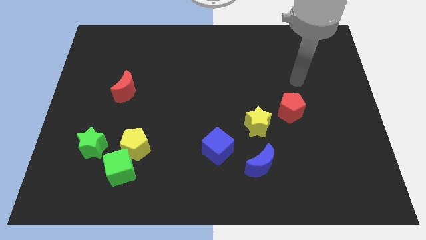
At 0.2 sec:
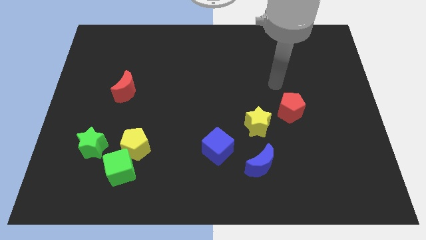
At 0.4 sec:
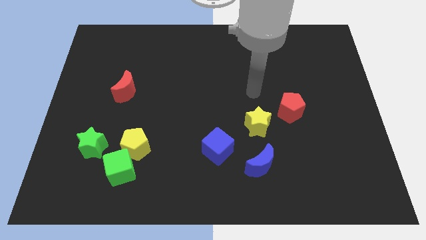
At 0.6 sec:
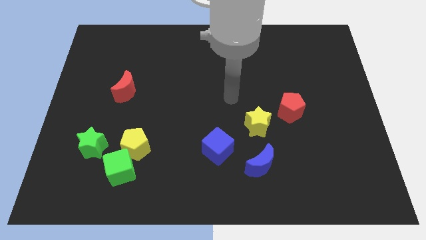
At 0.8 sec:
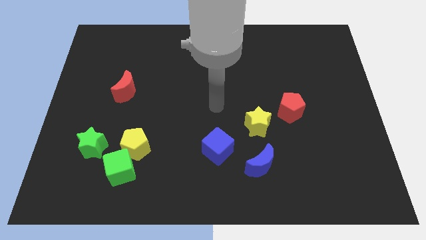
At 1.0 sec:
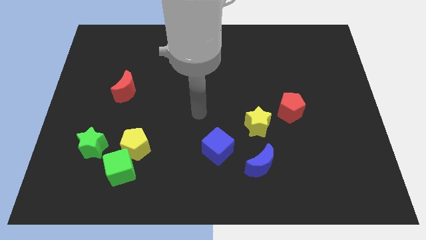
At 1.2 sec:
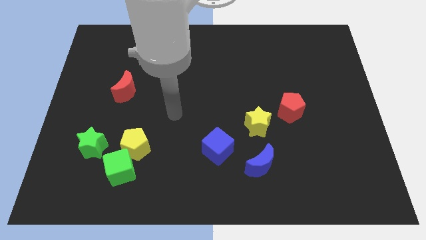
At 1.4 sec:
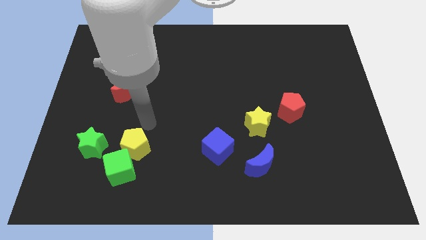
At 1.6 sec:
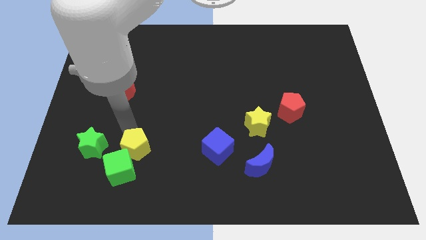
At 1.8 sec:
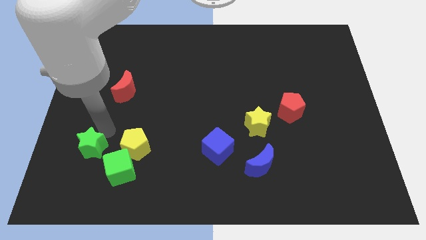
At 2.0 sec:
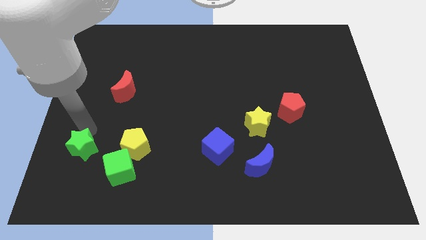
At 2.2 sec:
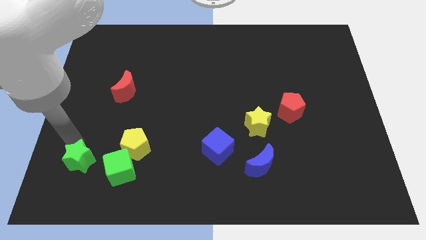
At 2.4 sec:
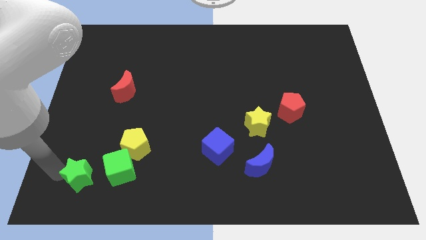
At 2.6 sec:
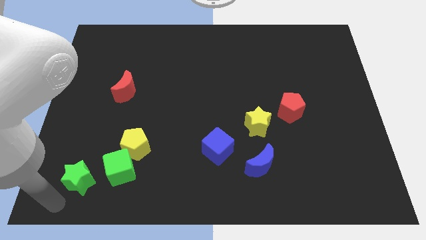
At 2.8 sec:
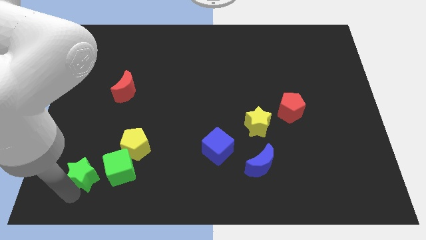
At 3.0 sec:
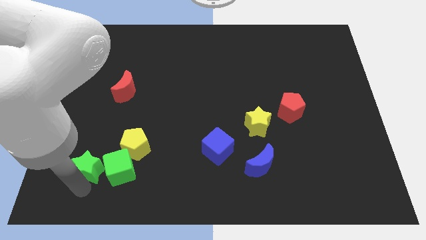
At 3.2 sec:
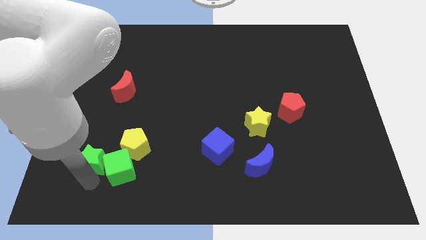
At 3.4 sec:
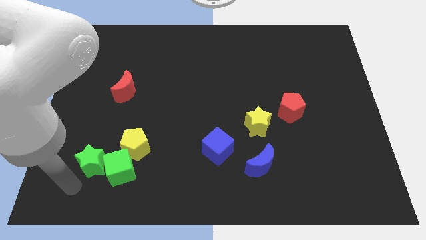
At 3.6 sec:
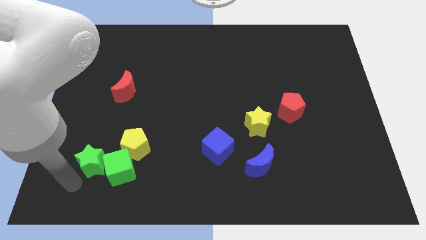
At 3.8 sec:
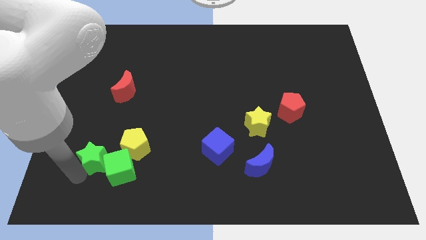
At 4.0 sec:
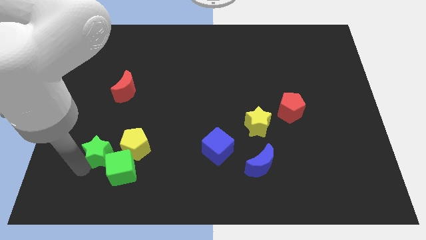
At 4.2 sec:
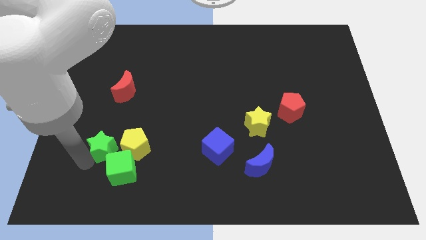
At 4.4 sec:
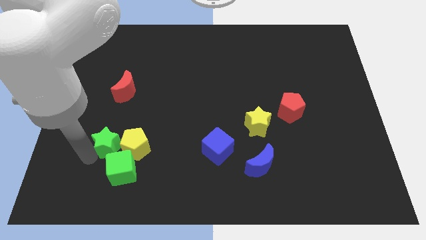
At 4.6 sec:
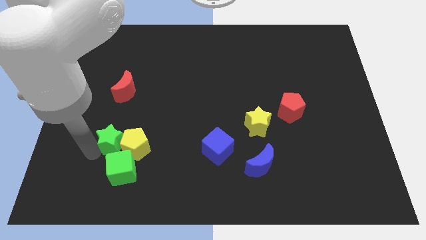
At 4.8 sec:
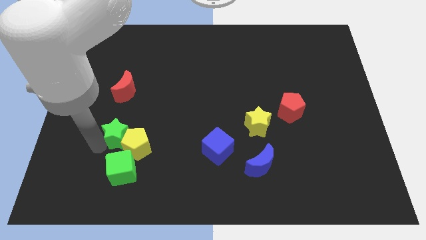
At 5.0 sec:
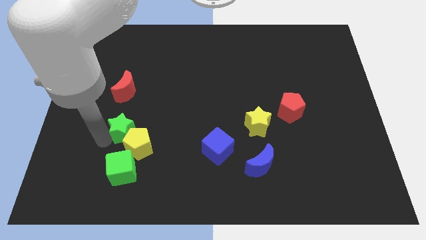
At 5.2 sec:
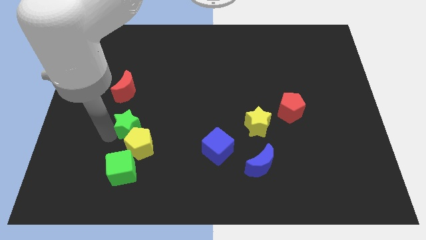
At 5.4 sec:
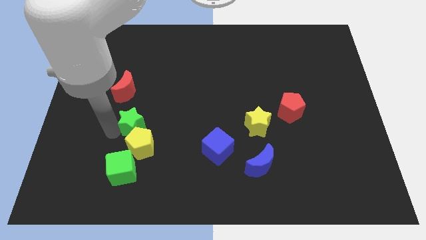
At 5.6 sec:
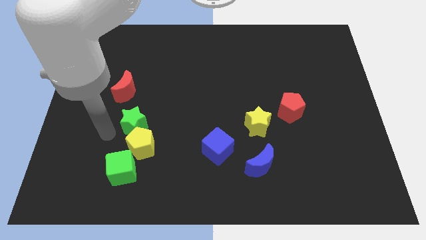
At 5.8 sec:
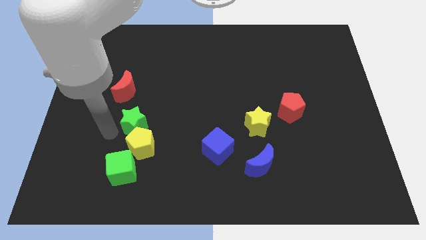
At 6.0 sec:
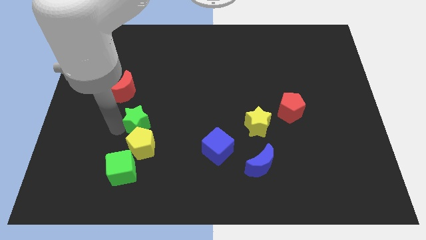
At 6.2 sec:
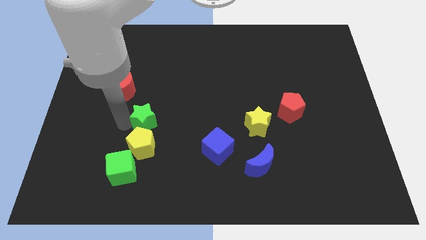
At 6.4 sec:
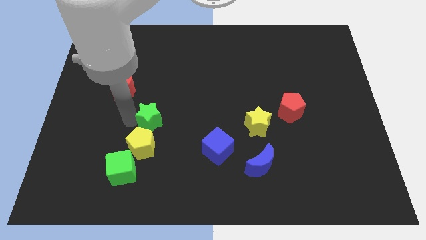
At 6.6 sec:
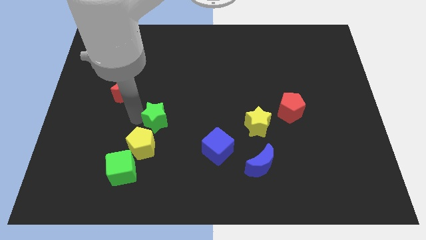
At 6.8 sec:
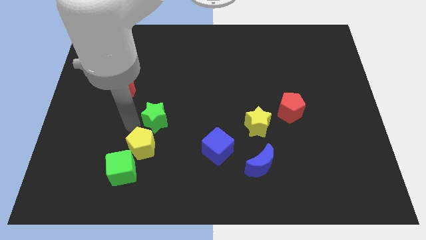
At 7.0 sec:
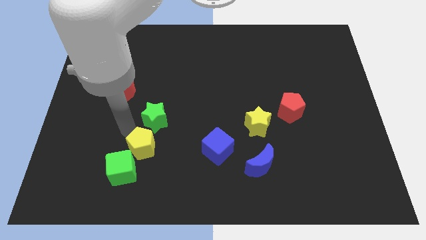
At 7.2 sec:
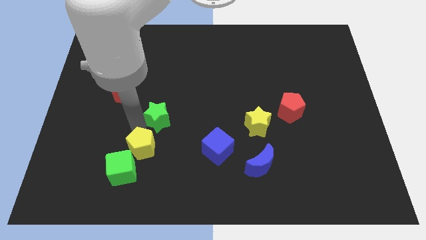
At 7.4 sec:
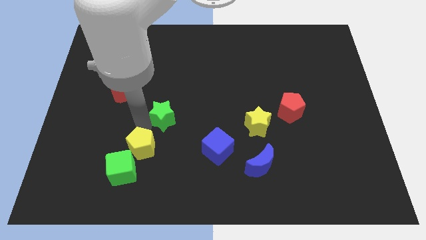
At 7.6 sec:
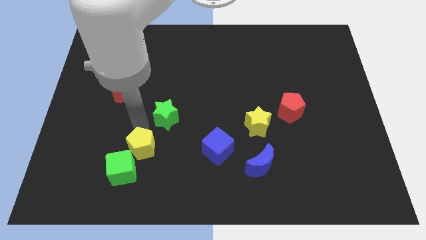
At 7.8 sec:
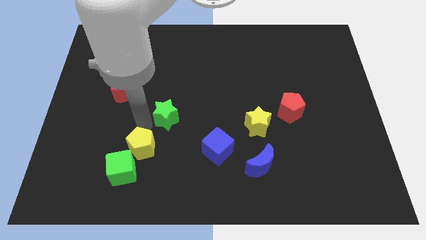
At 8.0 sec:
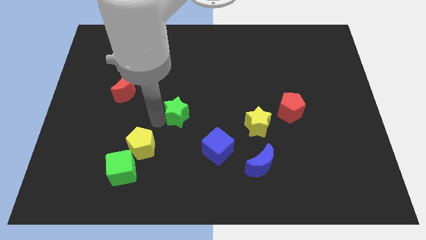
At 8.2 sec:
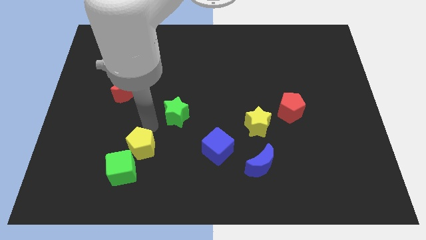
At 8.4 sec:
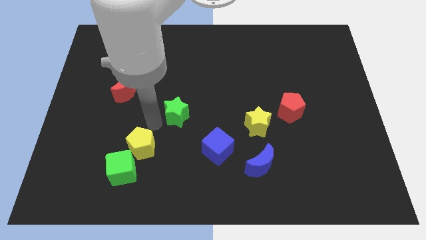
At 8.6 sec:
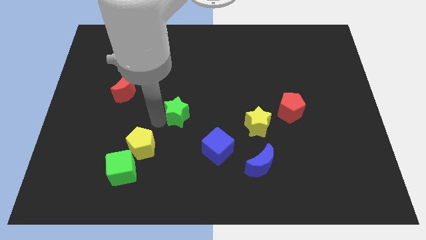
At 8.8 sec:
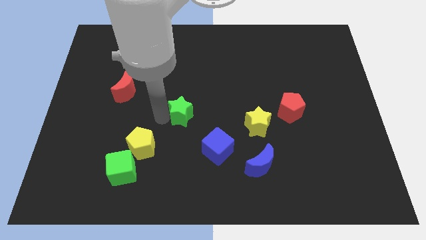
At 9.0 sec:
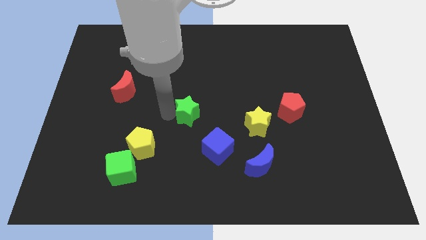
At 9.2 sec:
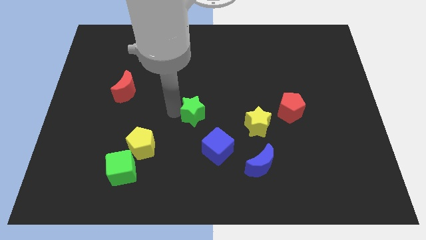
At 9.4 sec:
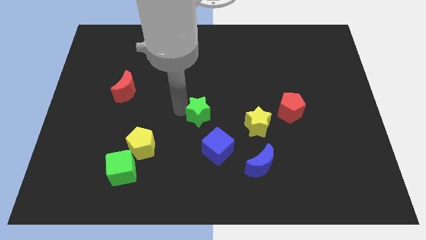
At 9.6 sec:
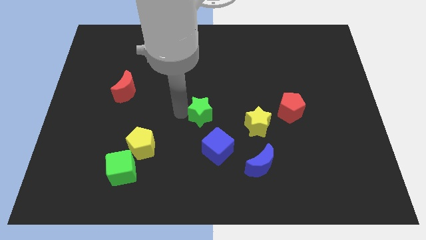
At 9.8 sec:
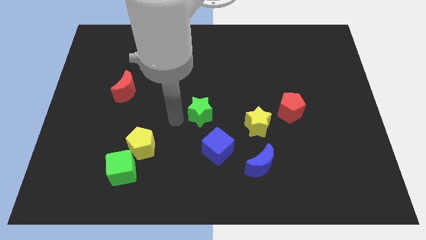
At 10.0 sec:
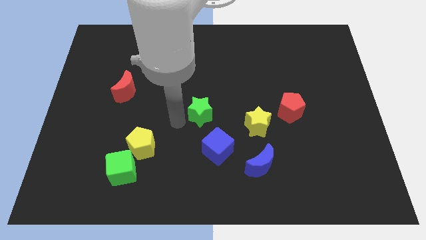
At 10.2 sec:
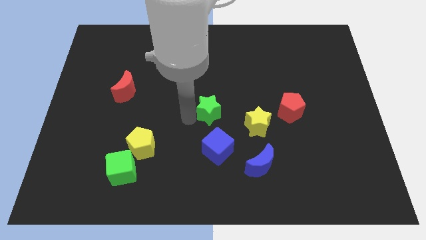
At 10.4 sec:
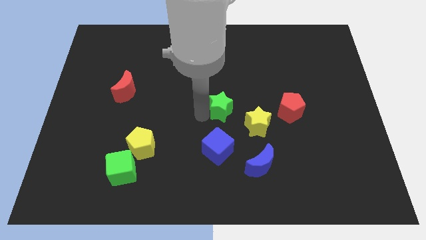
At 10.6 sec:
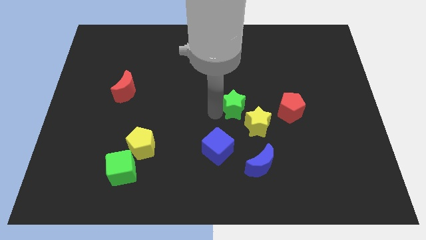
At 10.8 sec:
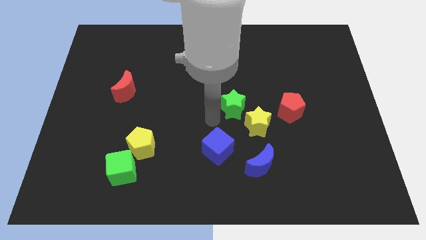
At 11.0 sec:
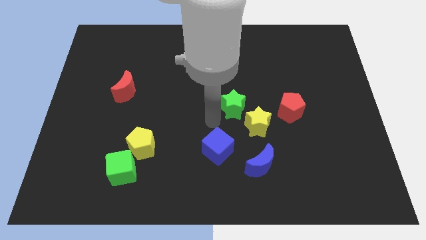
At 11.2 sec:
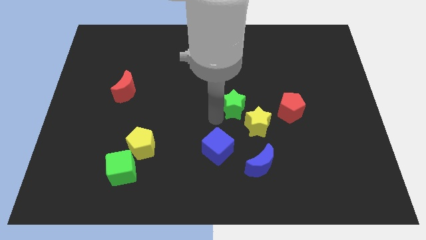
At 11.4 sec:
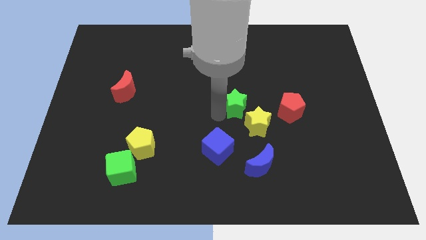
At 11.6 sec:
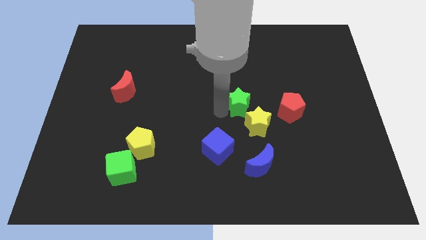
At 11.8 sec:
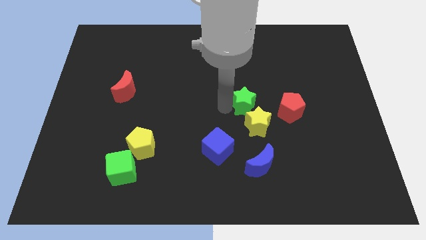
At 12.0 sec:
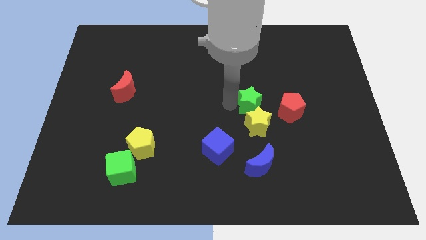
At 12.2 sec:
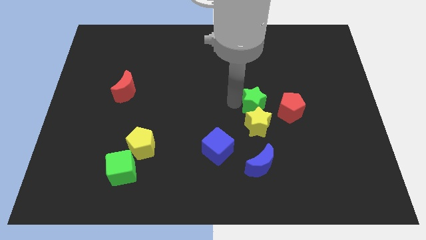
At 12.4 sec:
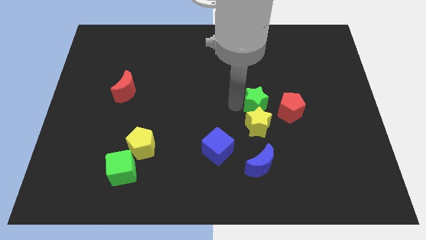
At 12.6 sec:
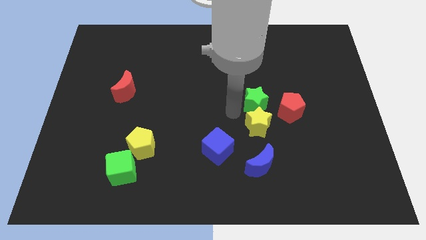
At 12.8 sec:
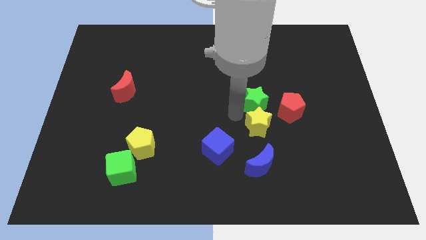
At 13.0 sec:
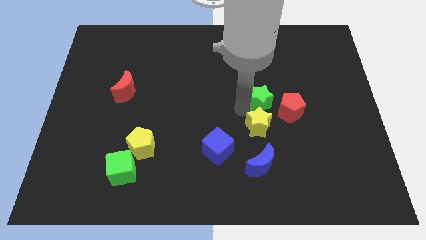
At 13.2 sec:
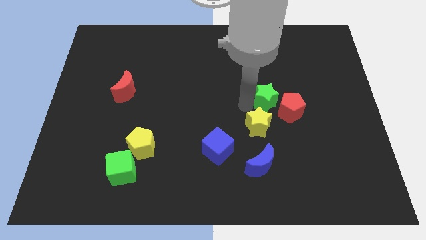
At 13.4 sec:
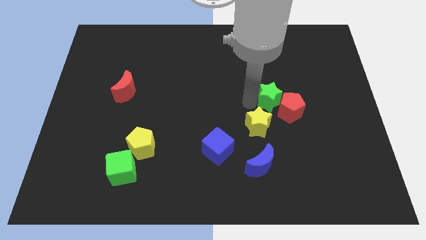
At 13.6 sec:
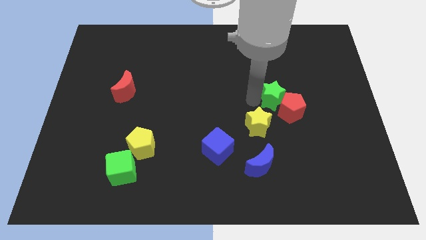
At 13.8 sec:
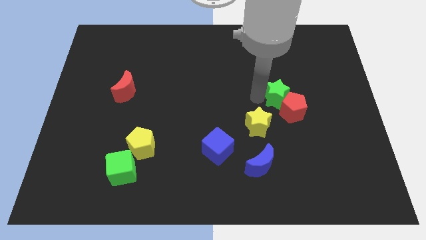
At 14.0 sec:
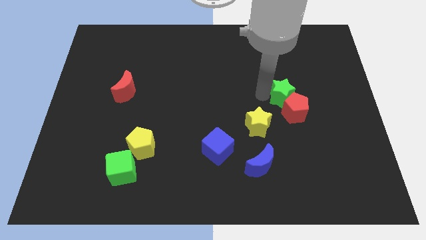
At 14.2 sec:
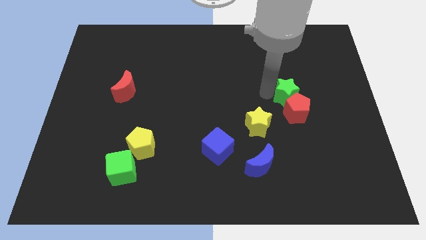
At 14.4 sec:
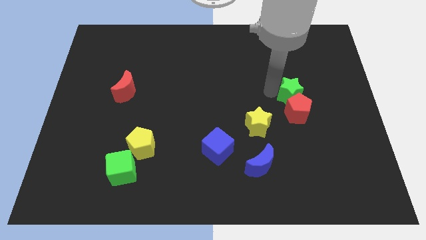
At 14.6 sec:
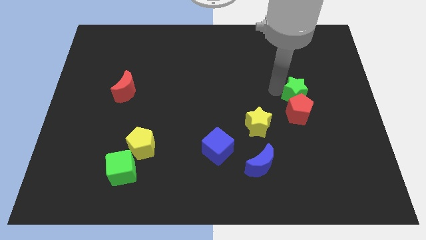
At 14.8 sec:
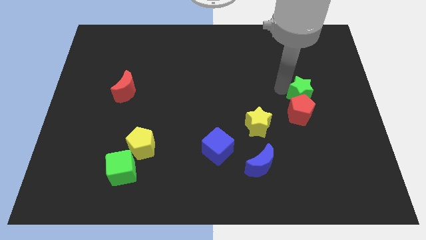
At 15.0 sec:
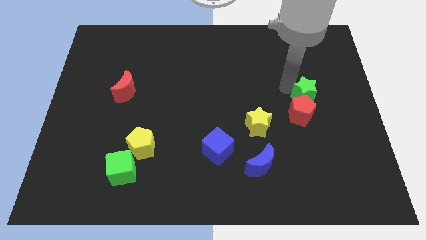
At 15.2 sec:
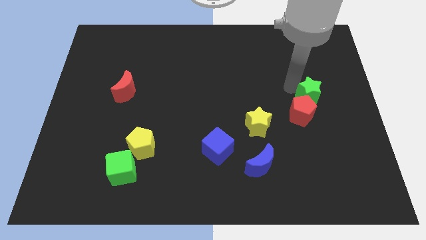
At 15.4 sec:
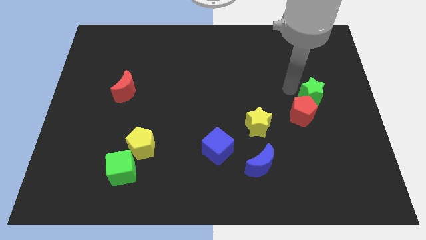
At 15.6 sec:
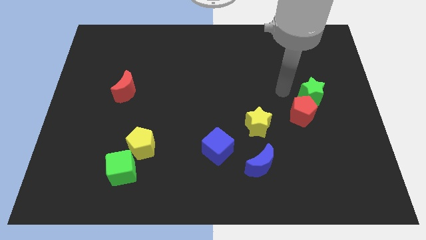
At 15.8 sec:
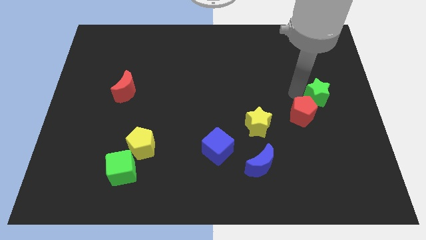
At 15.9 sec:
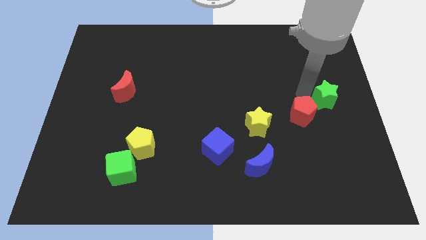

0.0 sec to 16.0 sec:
push the green star to the center right
